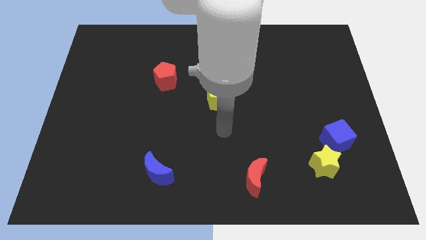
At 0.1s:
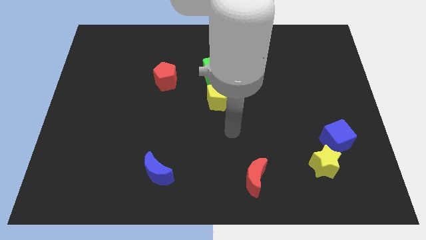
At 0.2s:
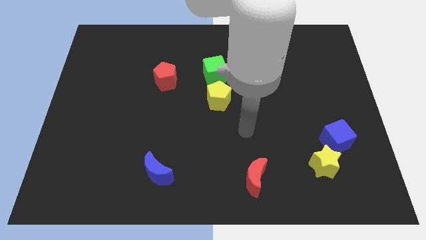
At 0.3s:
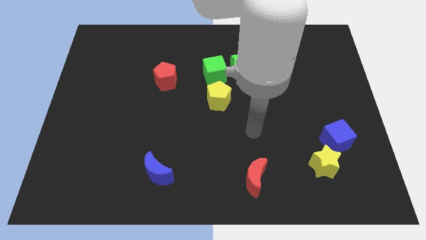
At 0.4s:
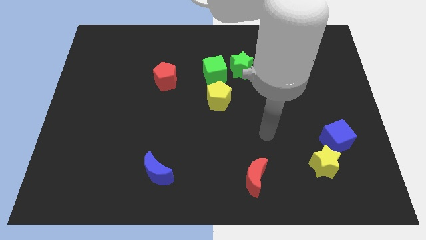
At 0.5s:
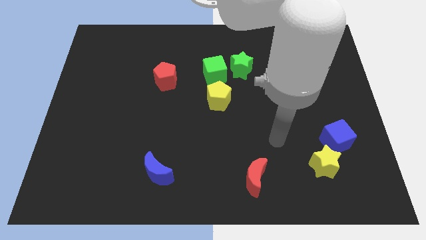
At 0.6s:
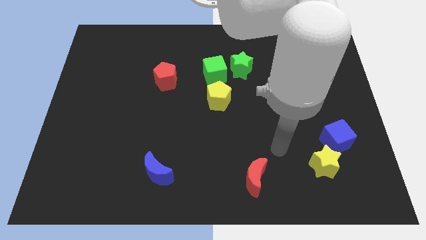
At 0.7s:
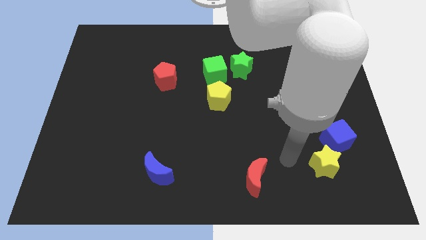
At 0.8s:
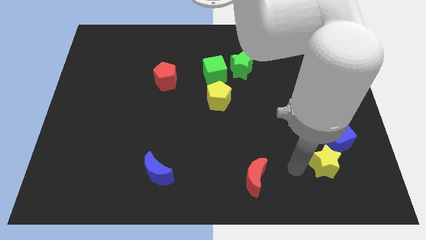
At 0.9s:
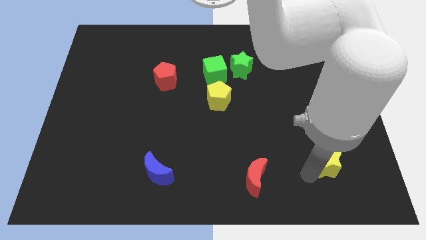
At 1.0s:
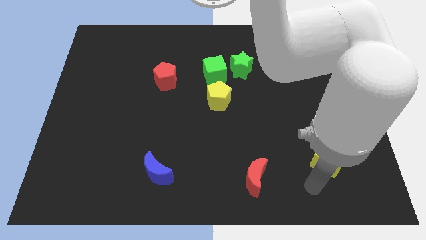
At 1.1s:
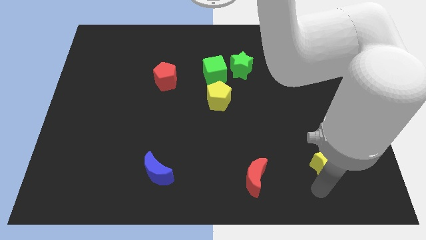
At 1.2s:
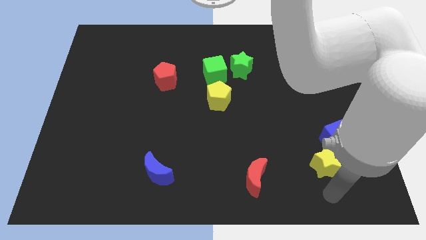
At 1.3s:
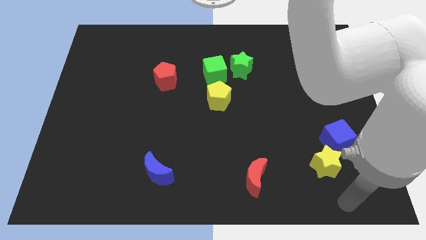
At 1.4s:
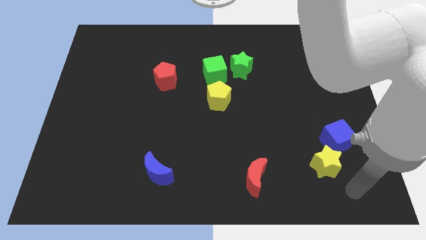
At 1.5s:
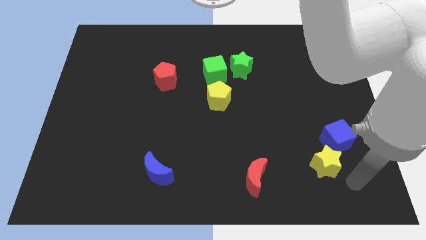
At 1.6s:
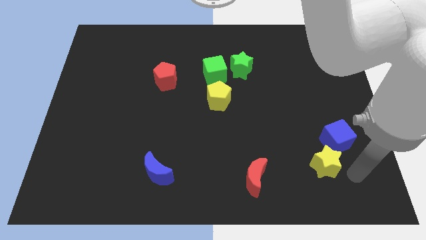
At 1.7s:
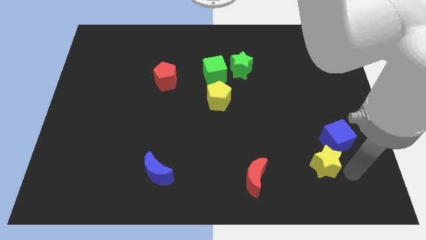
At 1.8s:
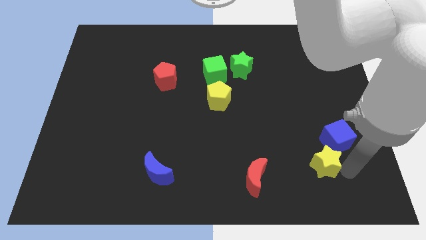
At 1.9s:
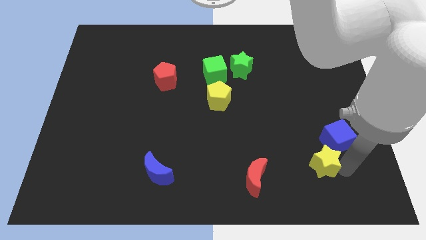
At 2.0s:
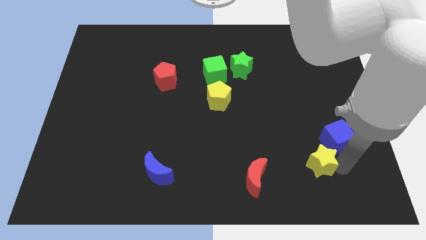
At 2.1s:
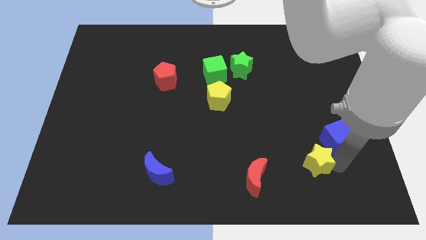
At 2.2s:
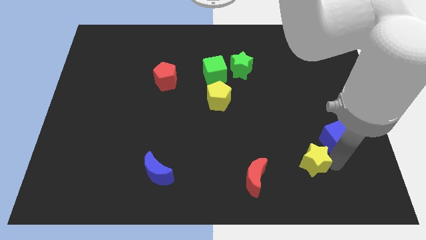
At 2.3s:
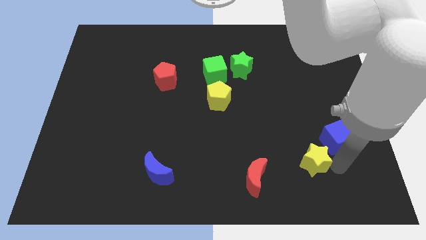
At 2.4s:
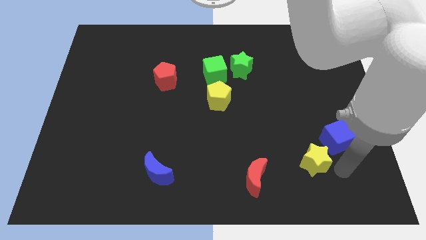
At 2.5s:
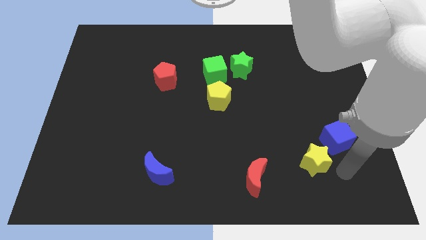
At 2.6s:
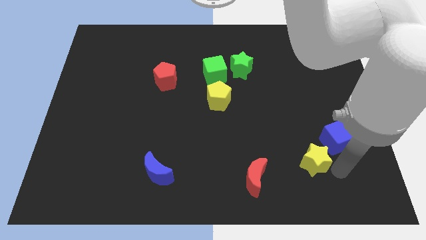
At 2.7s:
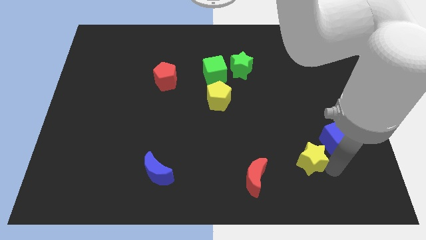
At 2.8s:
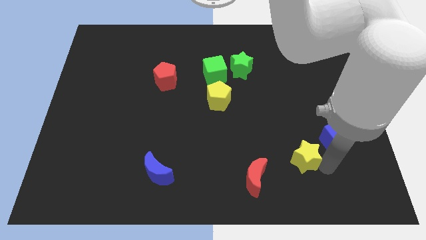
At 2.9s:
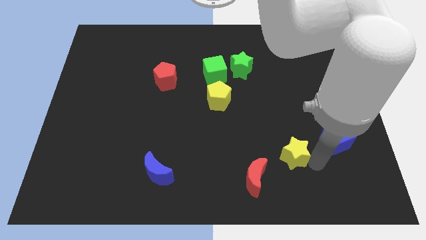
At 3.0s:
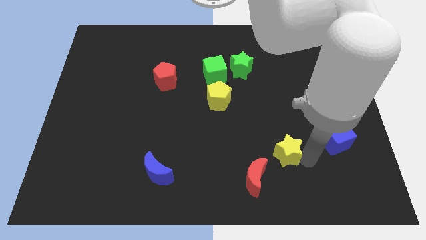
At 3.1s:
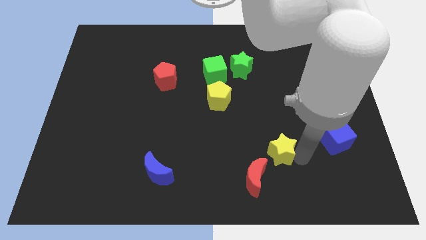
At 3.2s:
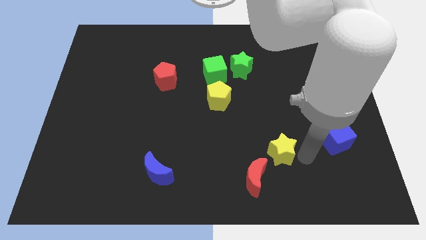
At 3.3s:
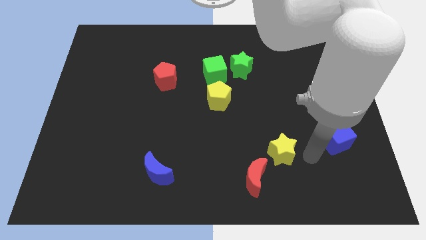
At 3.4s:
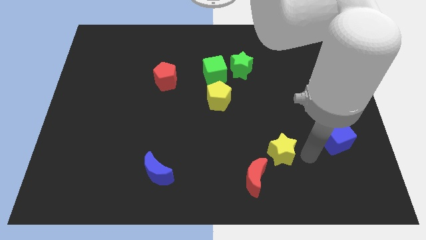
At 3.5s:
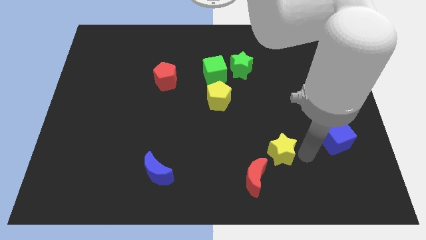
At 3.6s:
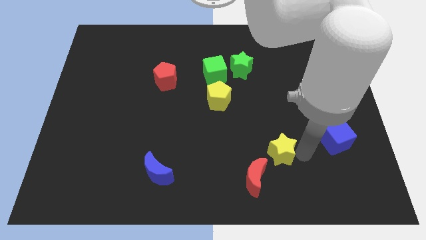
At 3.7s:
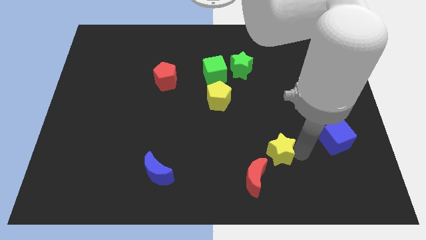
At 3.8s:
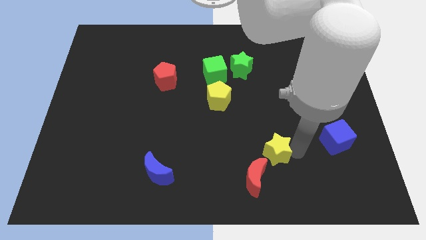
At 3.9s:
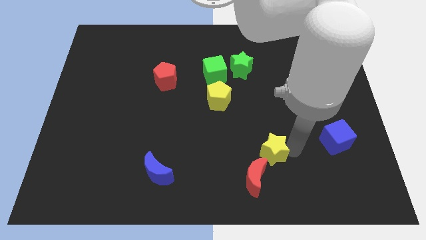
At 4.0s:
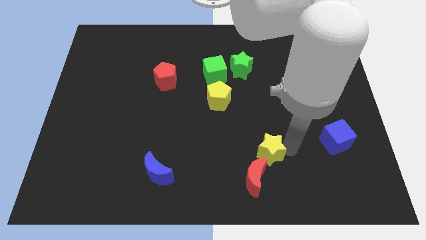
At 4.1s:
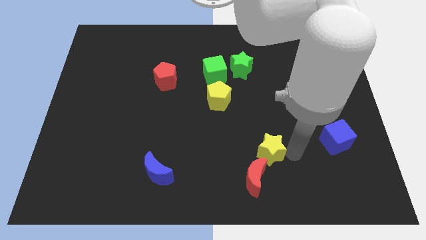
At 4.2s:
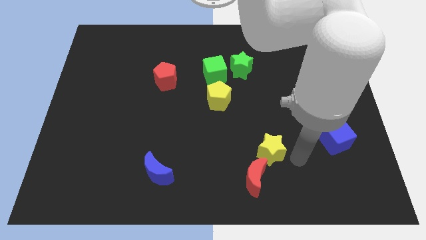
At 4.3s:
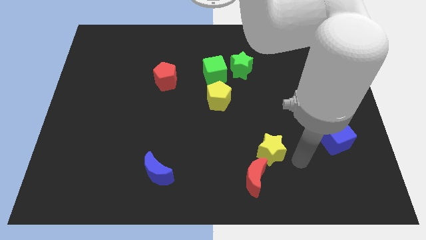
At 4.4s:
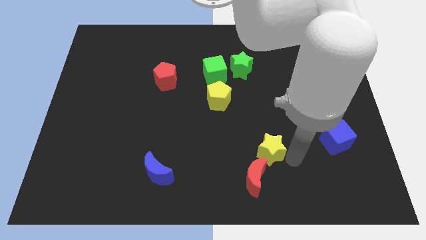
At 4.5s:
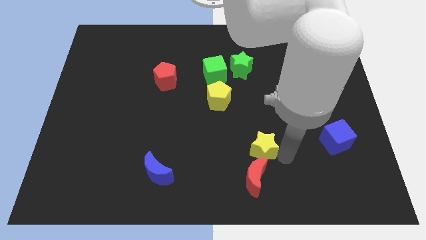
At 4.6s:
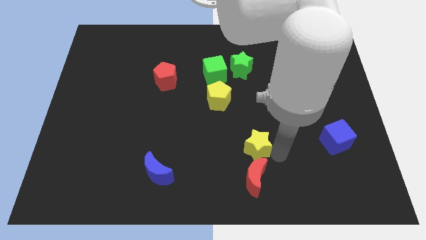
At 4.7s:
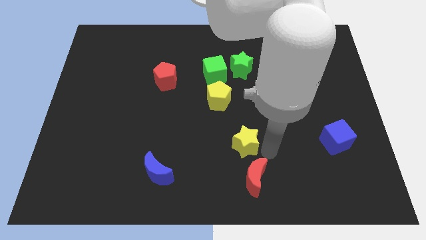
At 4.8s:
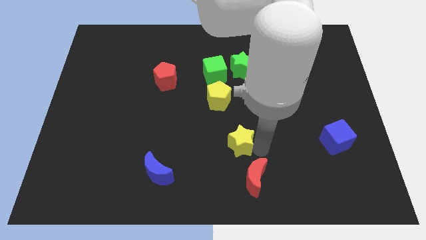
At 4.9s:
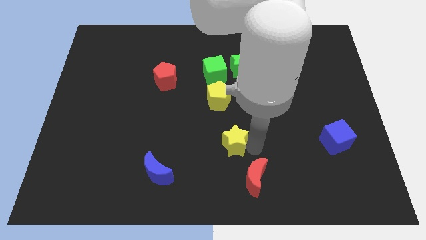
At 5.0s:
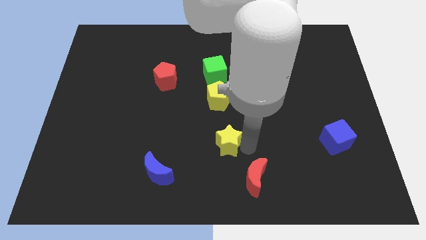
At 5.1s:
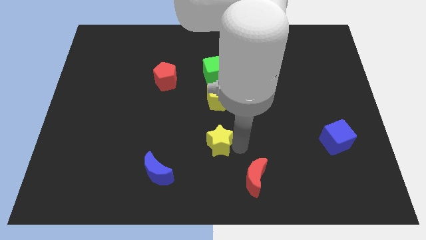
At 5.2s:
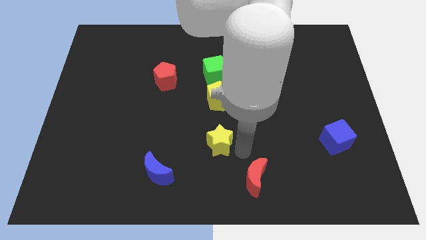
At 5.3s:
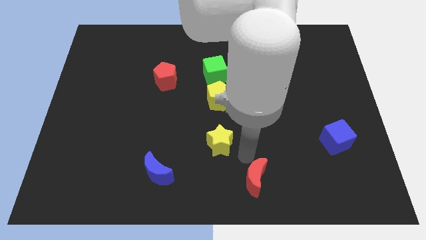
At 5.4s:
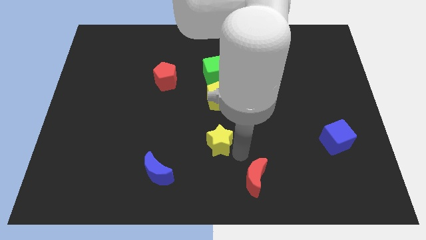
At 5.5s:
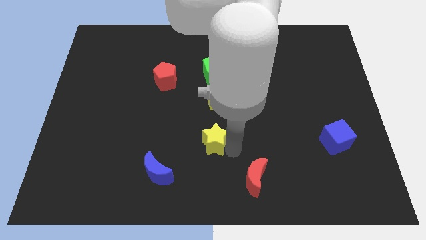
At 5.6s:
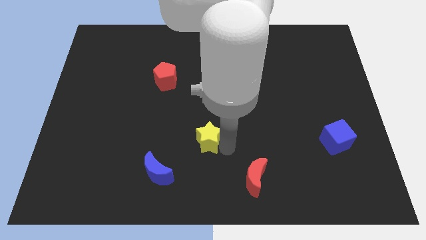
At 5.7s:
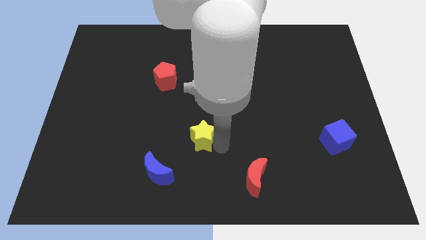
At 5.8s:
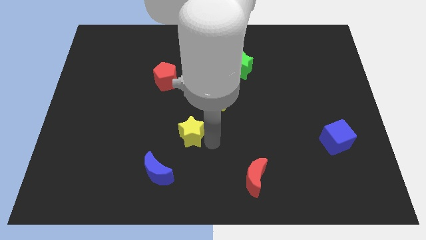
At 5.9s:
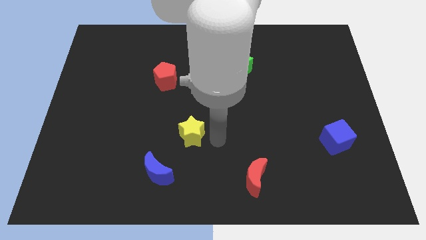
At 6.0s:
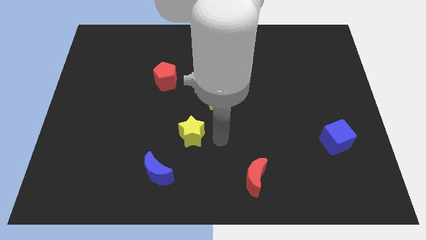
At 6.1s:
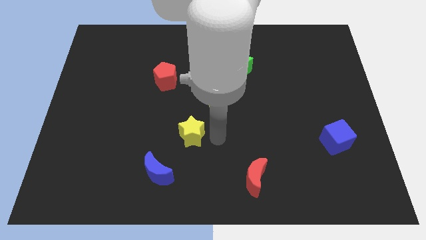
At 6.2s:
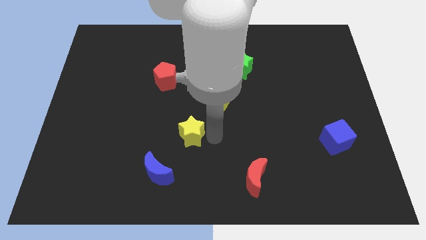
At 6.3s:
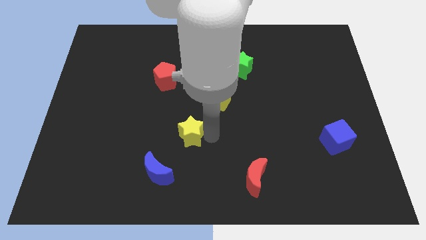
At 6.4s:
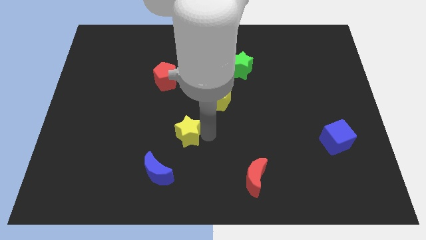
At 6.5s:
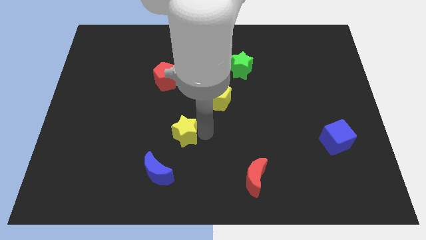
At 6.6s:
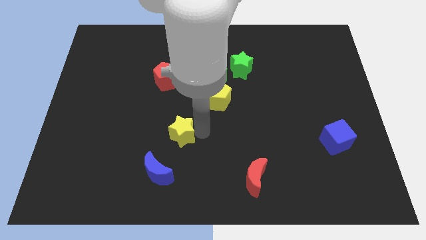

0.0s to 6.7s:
put the yellow star to the top of the blue moon

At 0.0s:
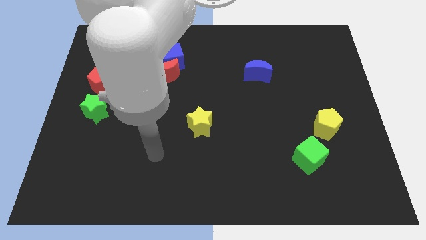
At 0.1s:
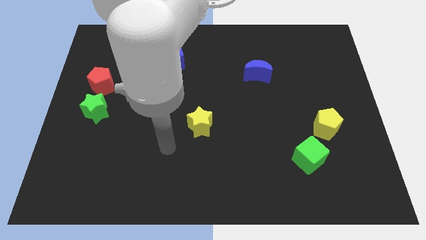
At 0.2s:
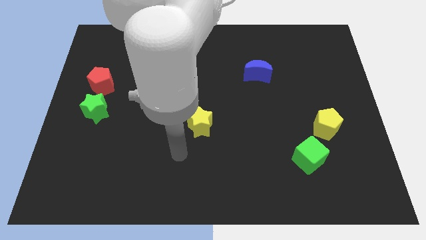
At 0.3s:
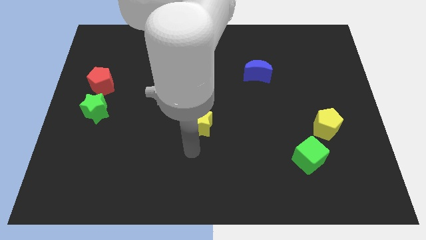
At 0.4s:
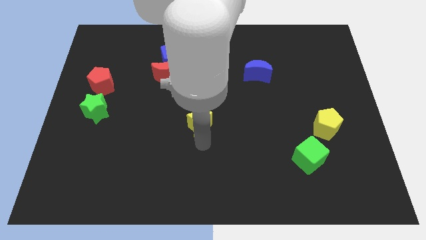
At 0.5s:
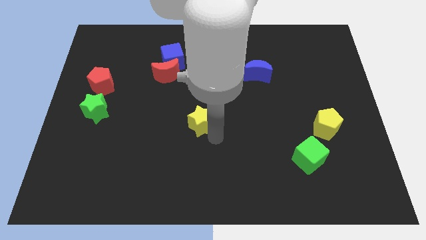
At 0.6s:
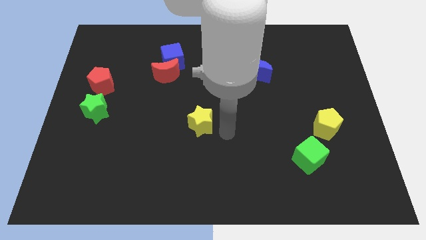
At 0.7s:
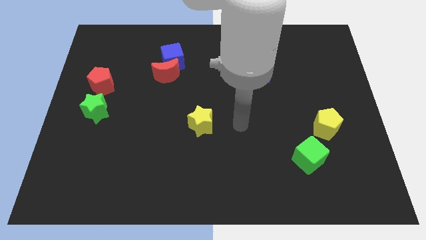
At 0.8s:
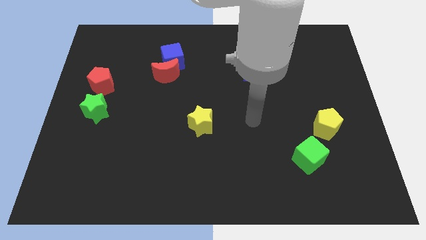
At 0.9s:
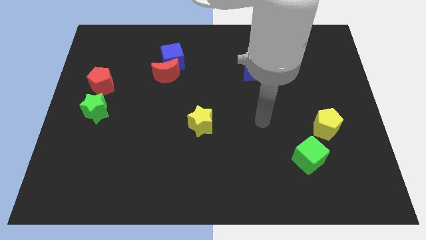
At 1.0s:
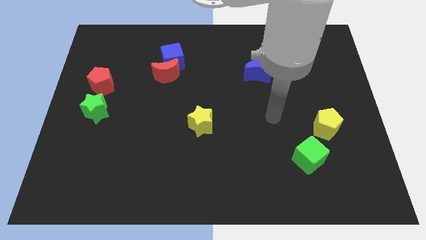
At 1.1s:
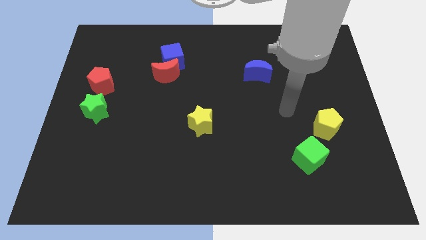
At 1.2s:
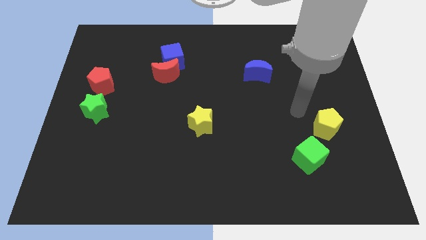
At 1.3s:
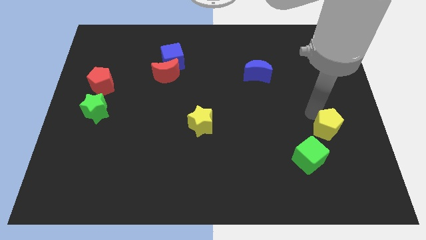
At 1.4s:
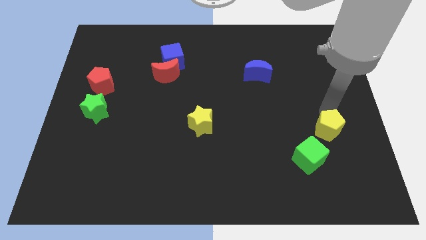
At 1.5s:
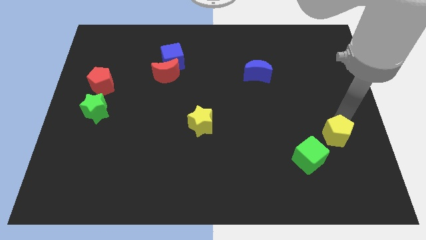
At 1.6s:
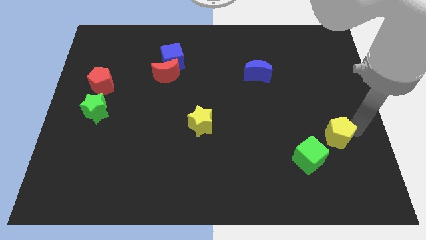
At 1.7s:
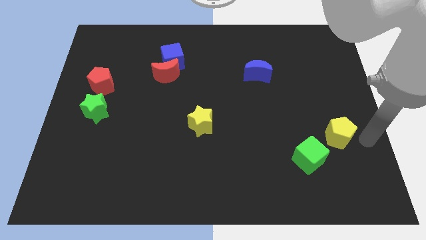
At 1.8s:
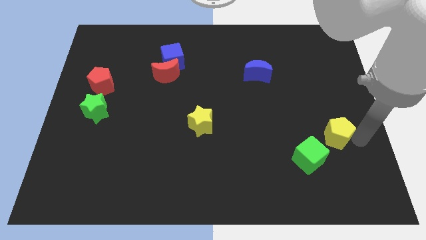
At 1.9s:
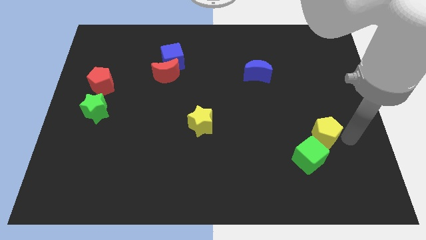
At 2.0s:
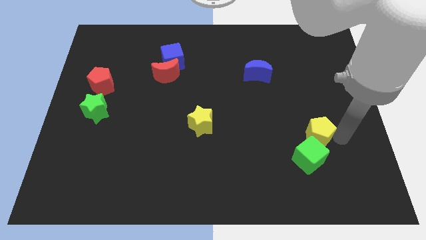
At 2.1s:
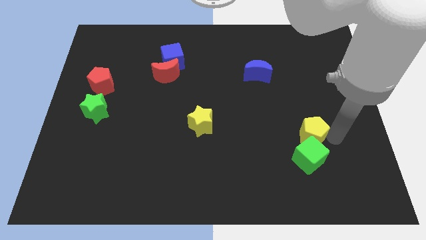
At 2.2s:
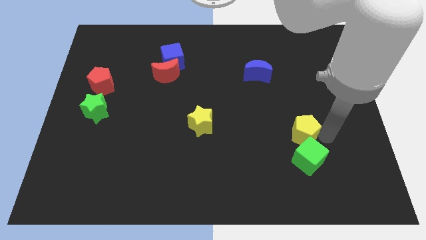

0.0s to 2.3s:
slide the yellow pentagon diagonally up and to the left of the green cube
